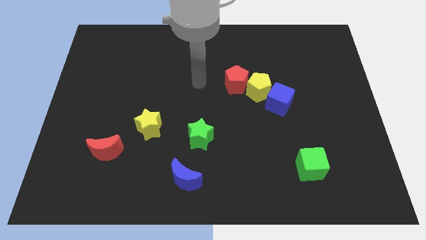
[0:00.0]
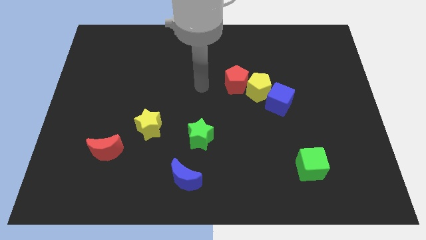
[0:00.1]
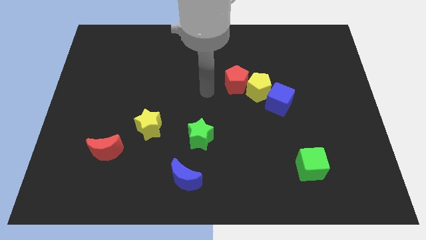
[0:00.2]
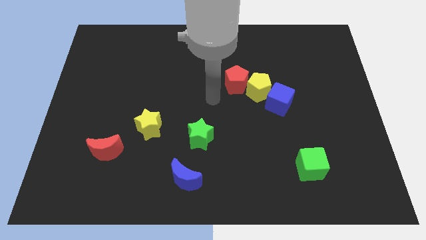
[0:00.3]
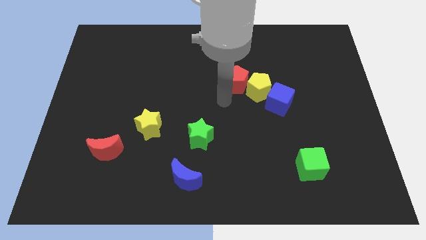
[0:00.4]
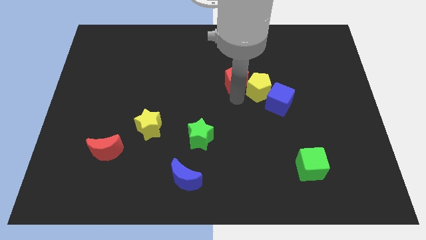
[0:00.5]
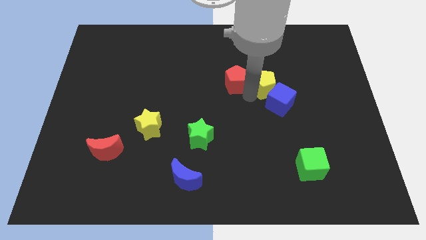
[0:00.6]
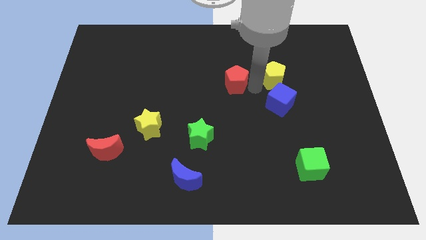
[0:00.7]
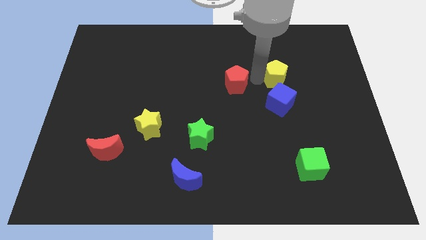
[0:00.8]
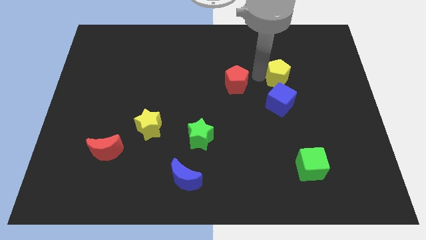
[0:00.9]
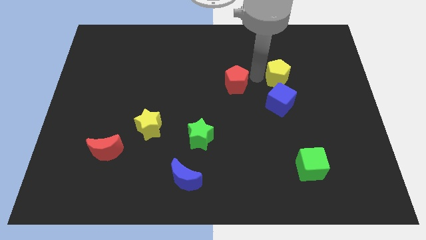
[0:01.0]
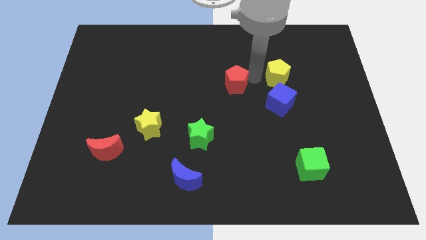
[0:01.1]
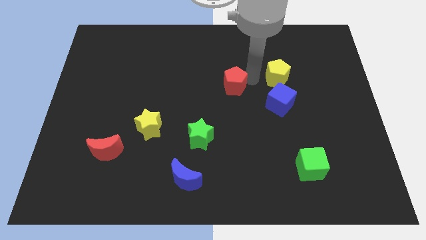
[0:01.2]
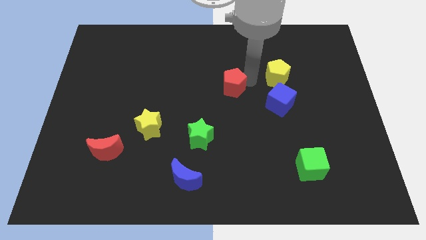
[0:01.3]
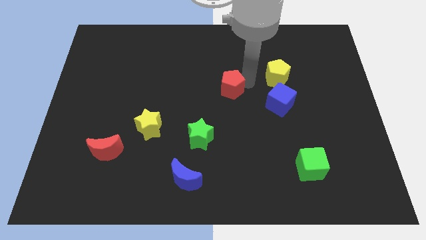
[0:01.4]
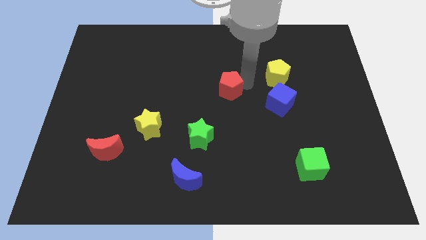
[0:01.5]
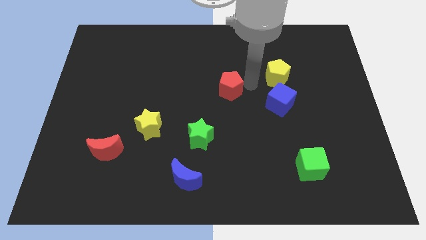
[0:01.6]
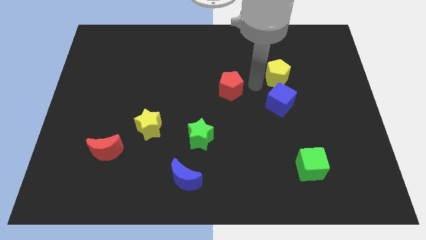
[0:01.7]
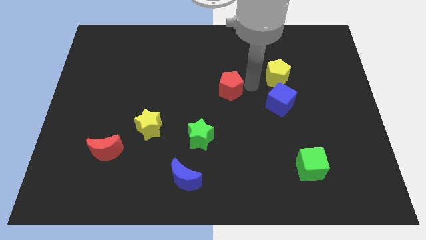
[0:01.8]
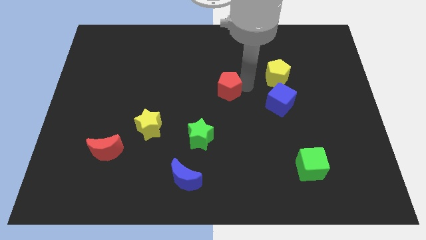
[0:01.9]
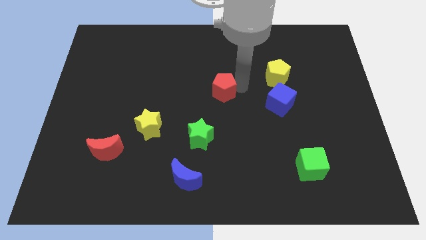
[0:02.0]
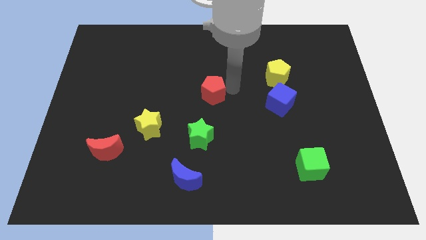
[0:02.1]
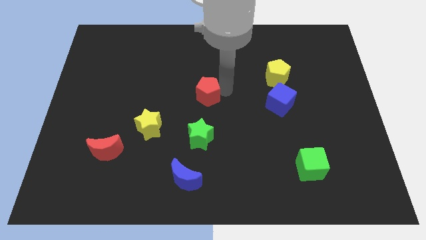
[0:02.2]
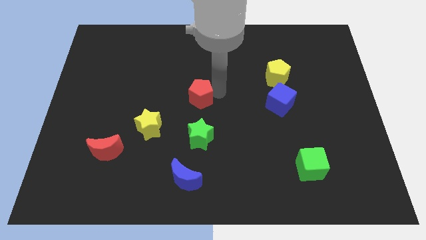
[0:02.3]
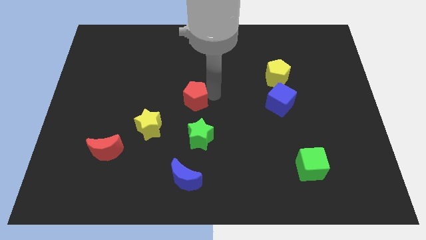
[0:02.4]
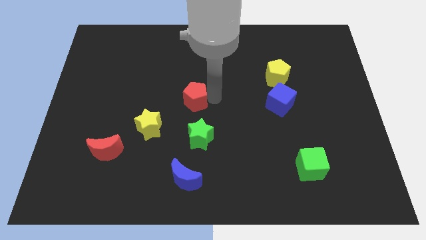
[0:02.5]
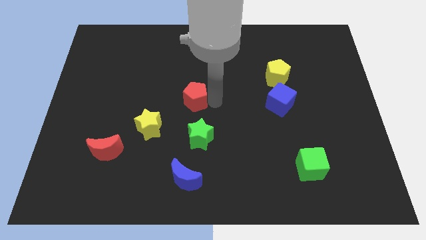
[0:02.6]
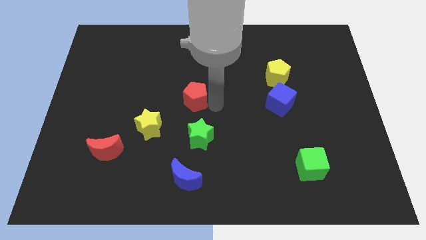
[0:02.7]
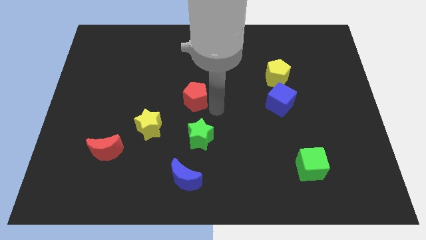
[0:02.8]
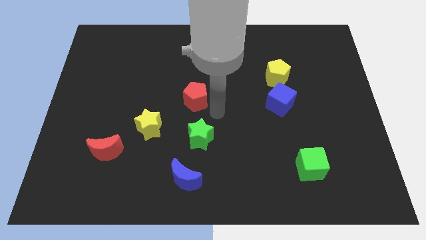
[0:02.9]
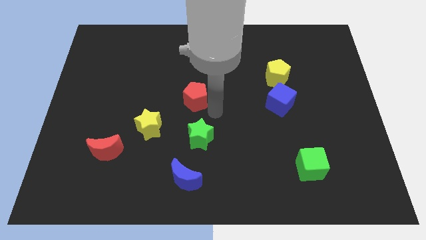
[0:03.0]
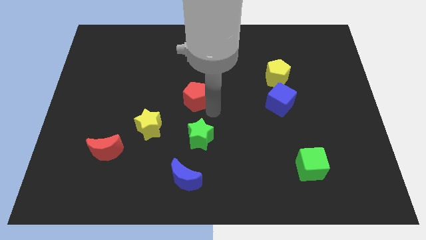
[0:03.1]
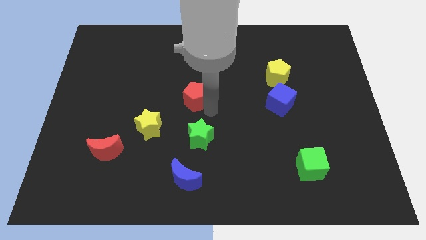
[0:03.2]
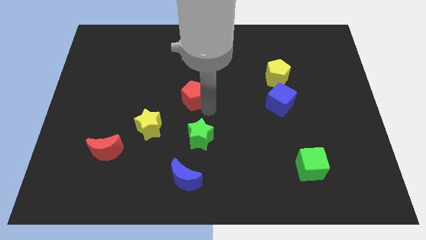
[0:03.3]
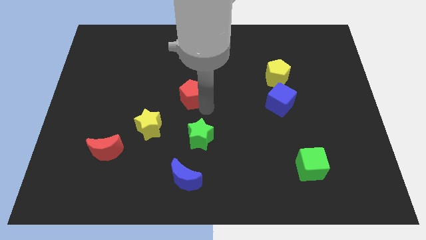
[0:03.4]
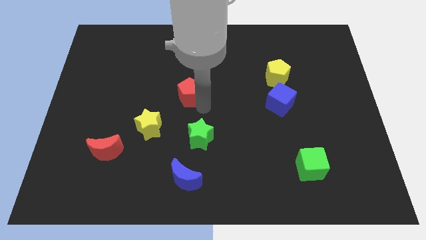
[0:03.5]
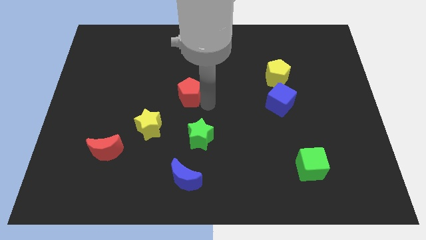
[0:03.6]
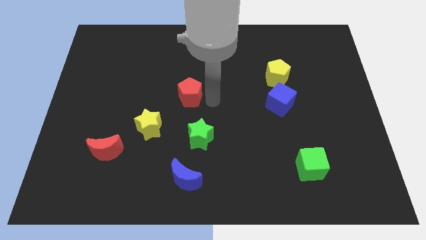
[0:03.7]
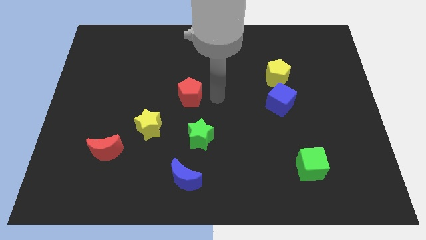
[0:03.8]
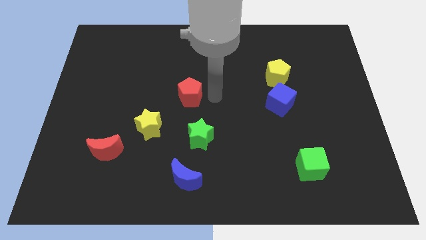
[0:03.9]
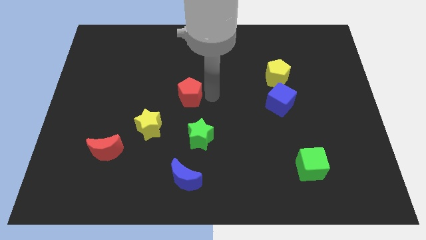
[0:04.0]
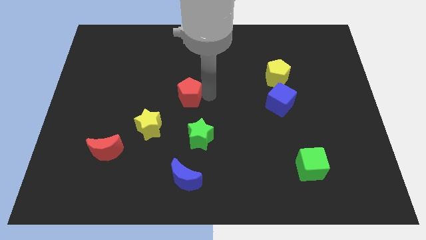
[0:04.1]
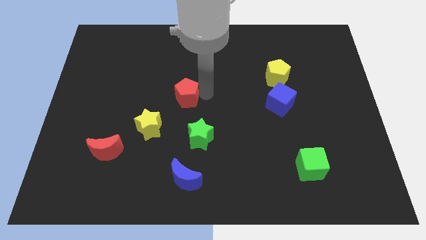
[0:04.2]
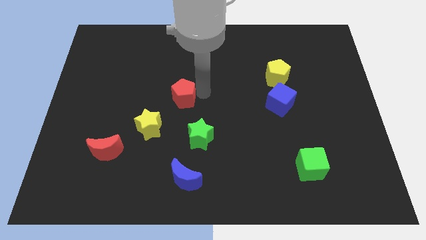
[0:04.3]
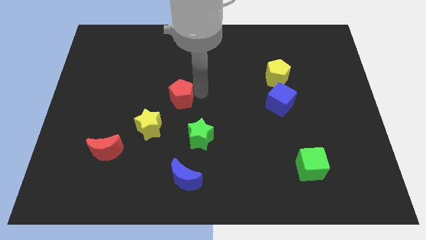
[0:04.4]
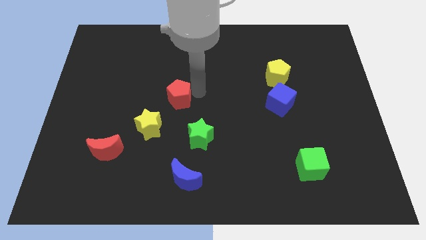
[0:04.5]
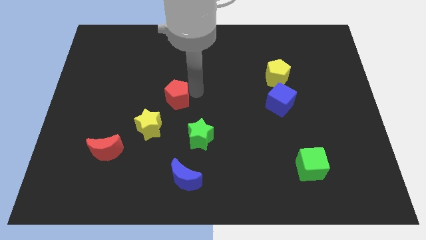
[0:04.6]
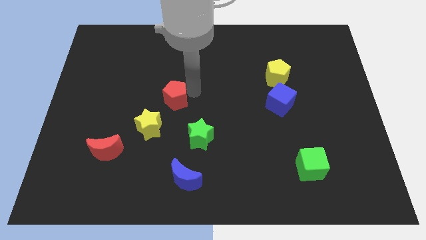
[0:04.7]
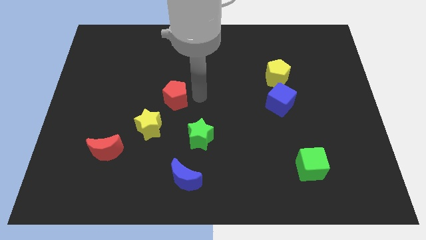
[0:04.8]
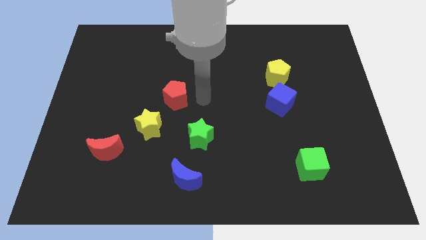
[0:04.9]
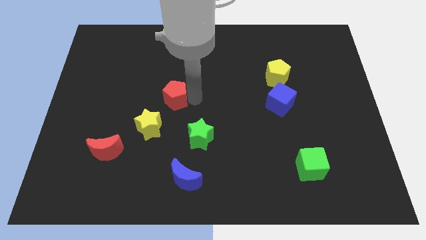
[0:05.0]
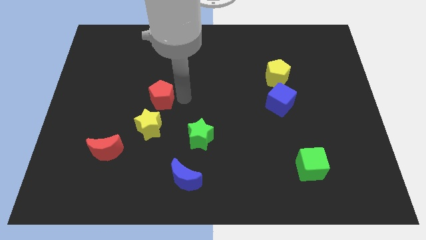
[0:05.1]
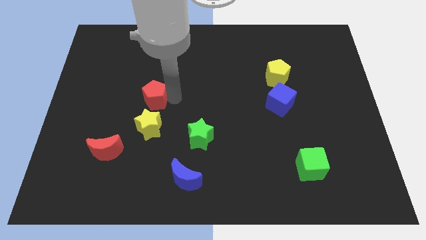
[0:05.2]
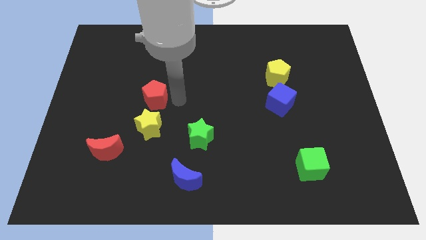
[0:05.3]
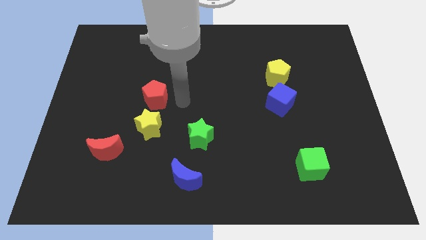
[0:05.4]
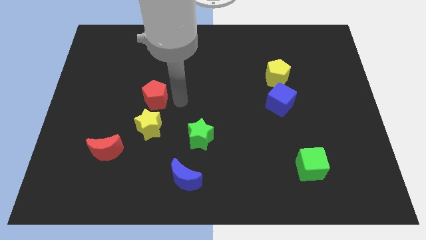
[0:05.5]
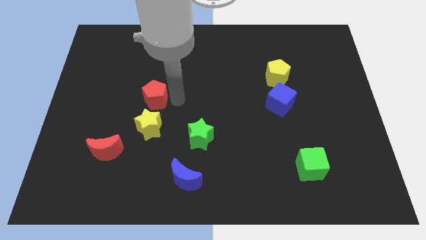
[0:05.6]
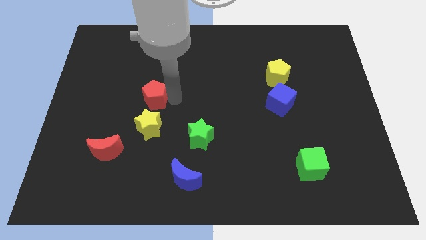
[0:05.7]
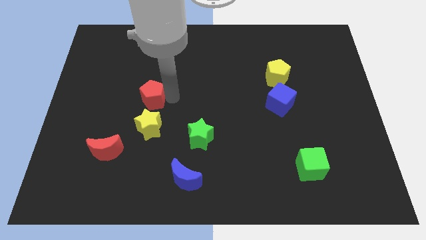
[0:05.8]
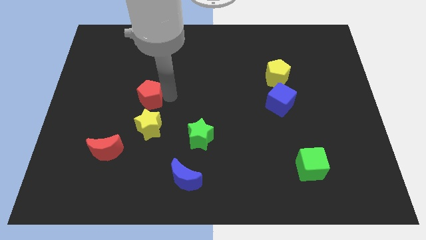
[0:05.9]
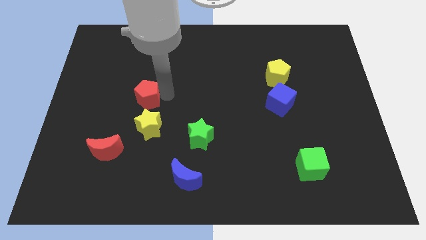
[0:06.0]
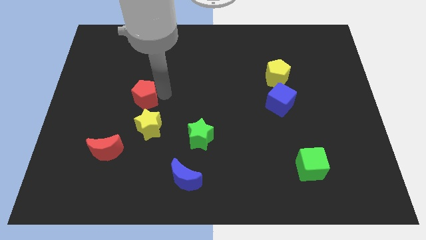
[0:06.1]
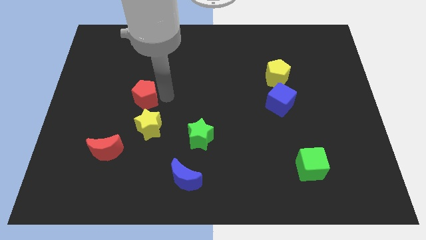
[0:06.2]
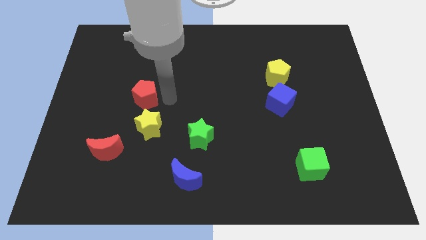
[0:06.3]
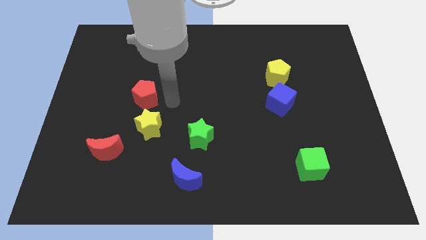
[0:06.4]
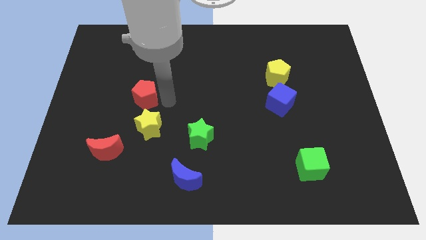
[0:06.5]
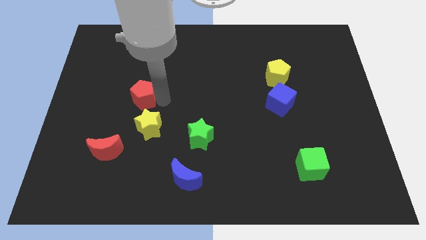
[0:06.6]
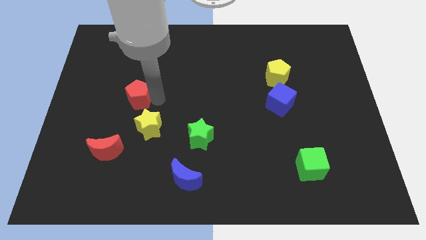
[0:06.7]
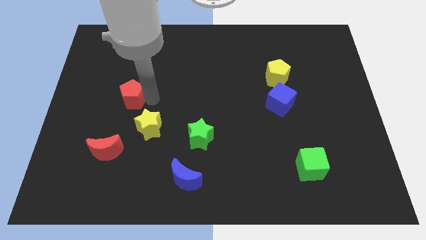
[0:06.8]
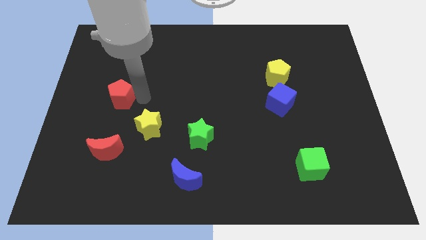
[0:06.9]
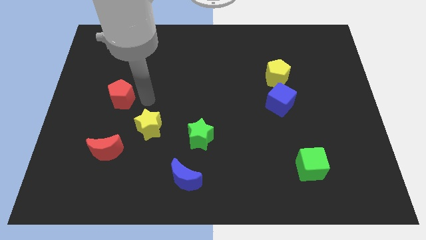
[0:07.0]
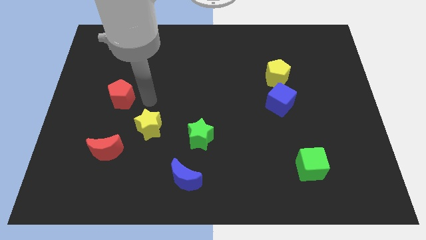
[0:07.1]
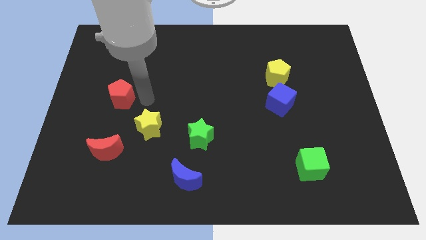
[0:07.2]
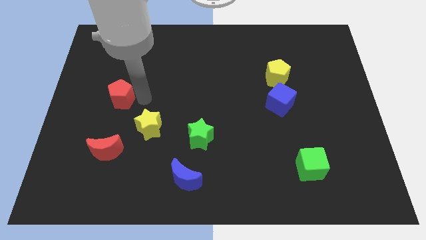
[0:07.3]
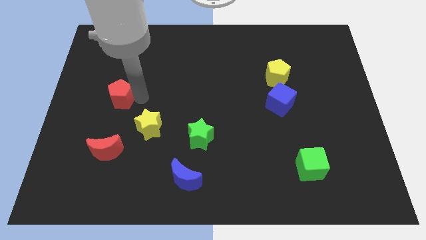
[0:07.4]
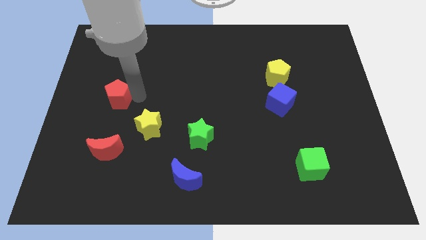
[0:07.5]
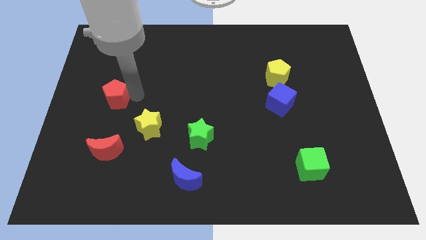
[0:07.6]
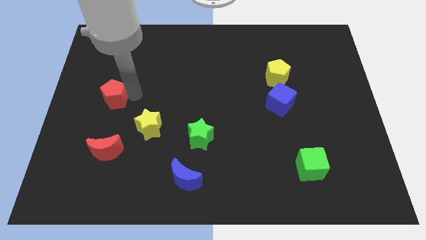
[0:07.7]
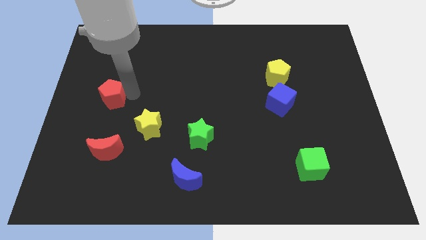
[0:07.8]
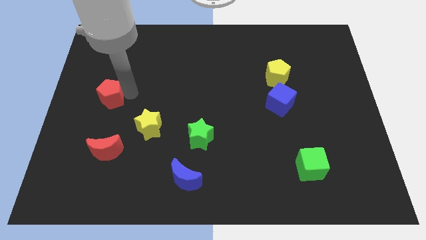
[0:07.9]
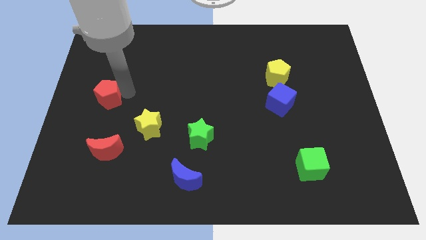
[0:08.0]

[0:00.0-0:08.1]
push the red pentagon to the center left

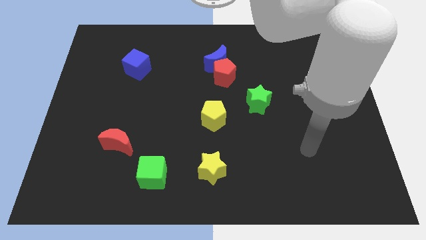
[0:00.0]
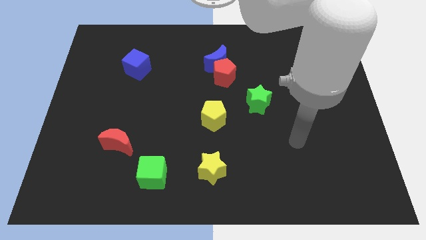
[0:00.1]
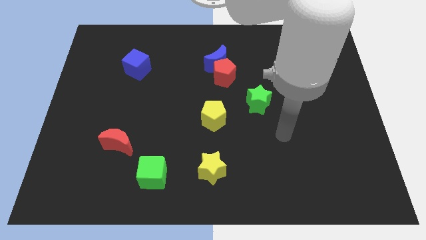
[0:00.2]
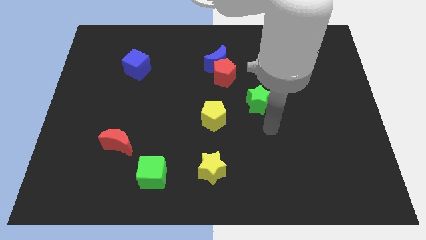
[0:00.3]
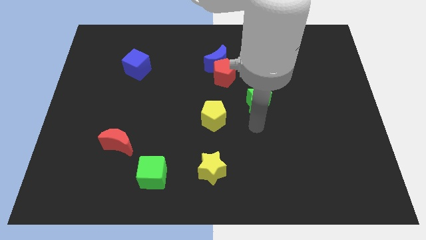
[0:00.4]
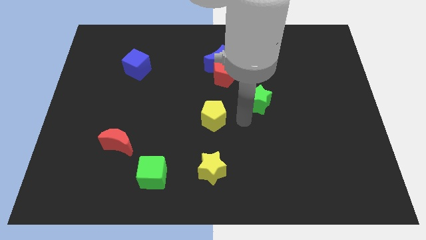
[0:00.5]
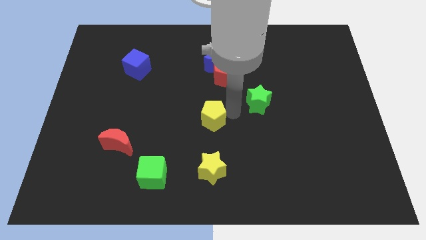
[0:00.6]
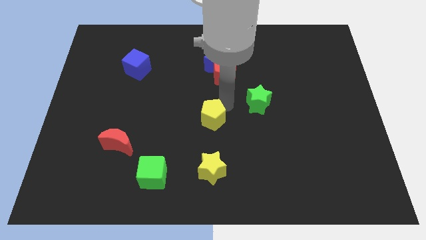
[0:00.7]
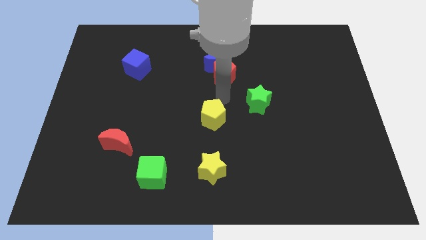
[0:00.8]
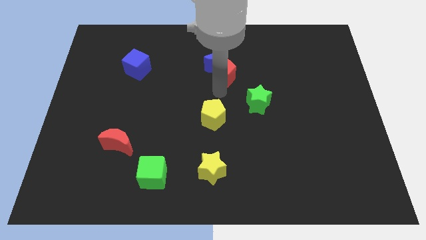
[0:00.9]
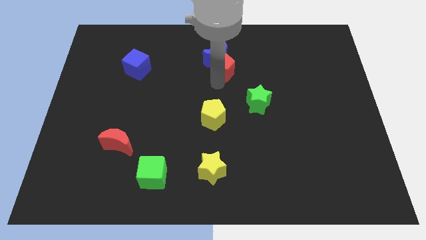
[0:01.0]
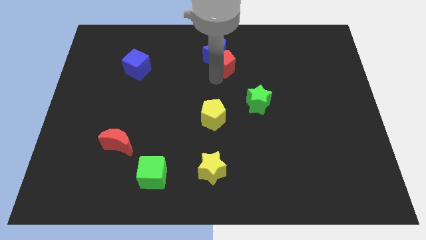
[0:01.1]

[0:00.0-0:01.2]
push the blue moon to the top side
